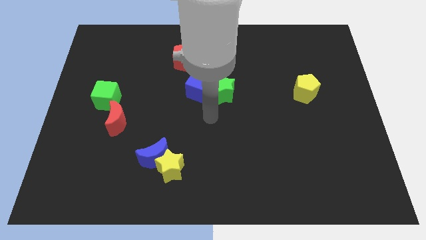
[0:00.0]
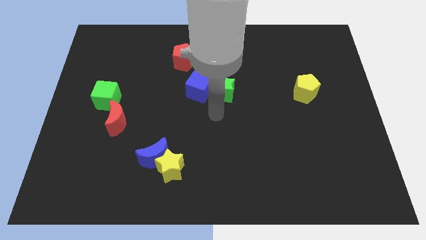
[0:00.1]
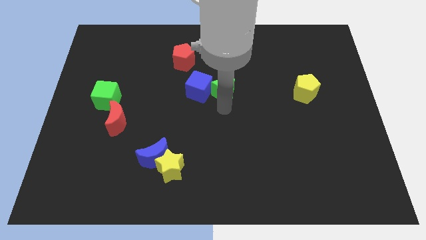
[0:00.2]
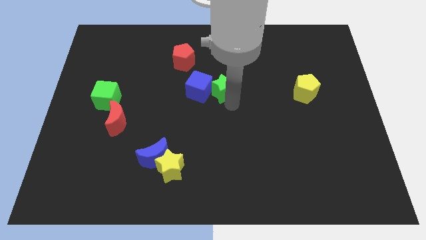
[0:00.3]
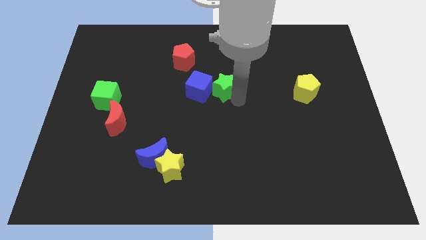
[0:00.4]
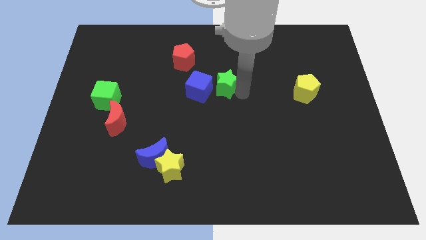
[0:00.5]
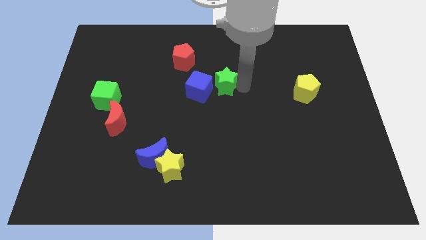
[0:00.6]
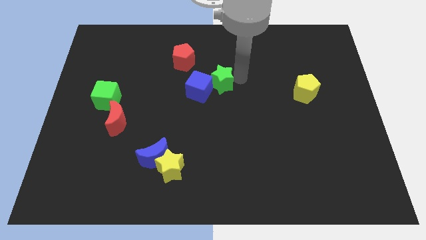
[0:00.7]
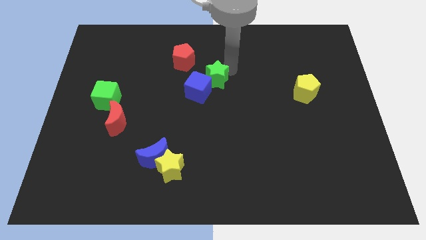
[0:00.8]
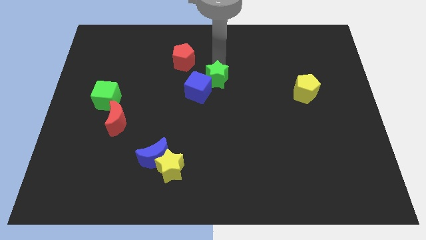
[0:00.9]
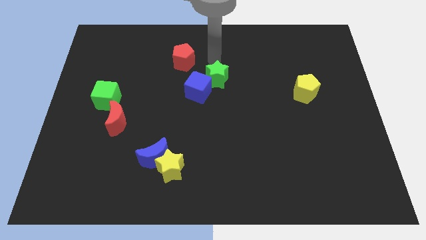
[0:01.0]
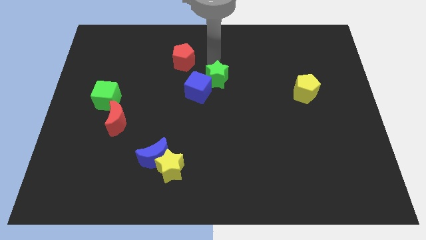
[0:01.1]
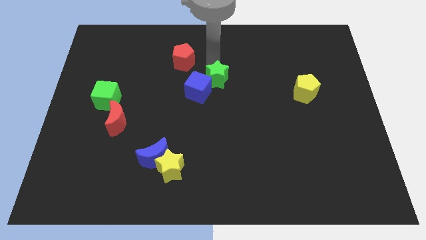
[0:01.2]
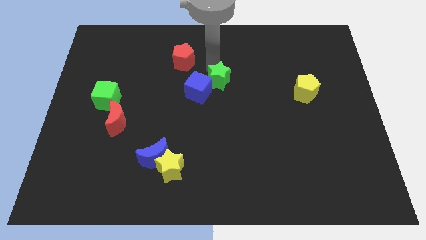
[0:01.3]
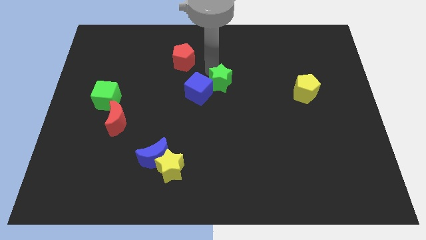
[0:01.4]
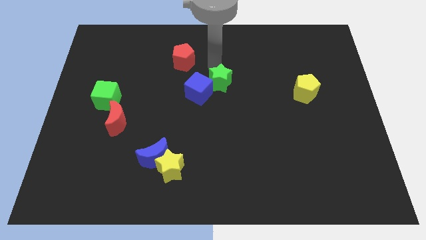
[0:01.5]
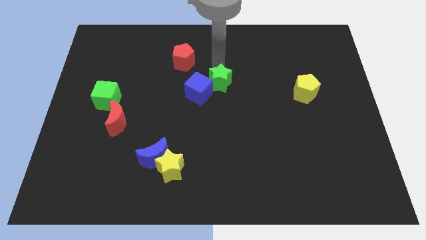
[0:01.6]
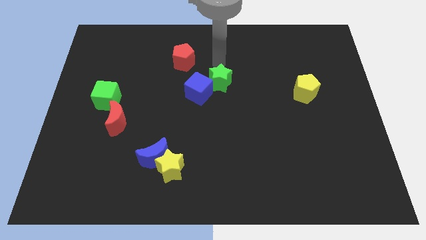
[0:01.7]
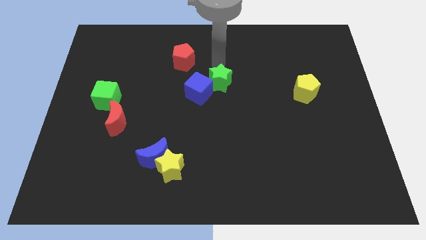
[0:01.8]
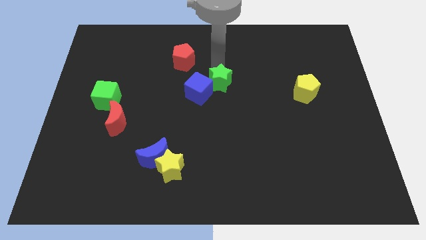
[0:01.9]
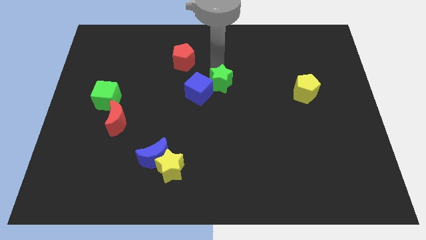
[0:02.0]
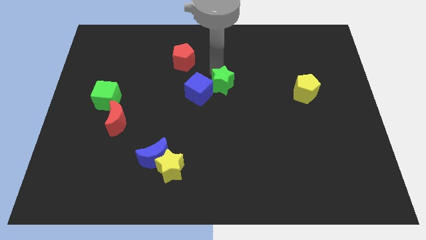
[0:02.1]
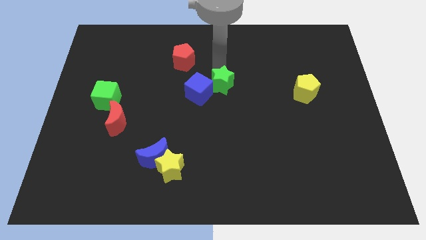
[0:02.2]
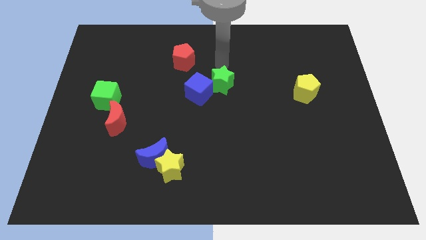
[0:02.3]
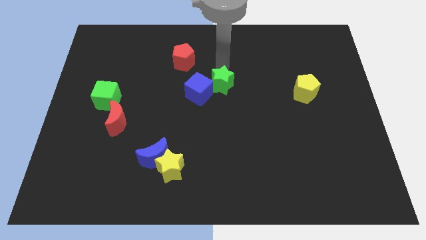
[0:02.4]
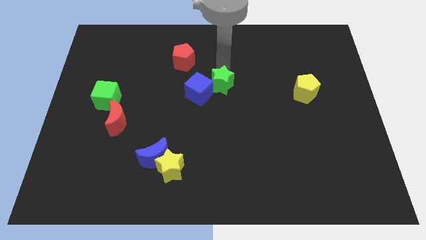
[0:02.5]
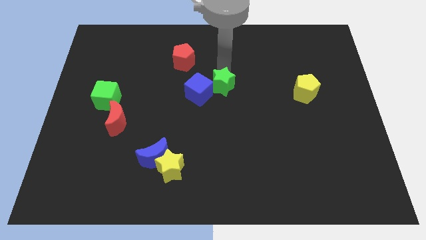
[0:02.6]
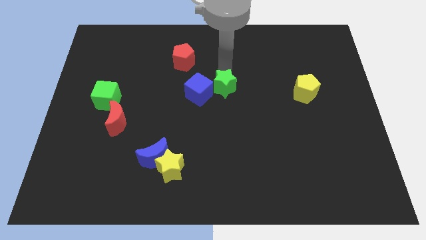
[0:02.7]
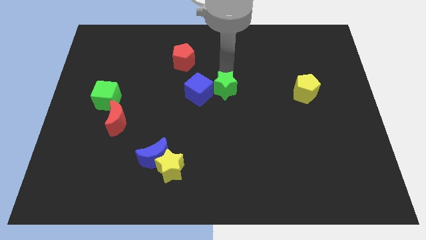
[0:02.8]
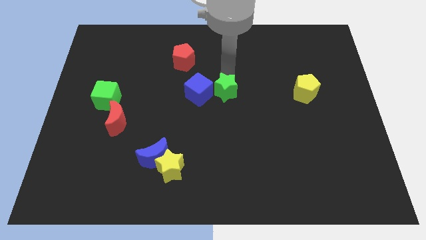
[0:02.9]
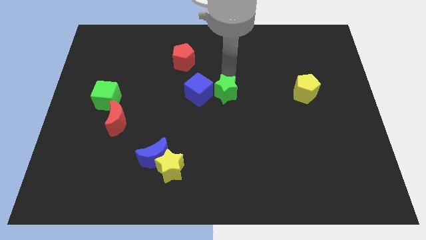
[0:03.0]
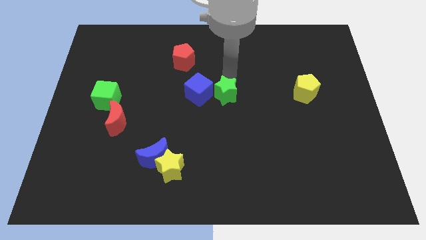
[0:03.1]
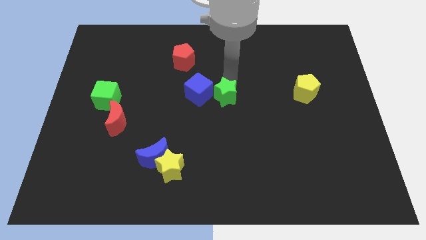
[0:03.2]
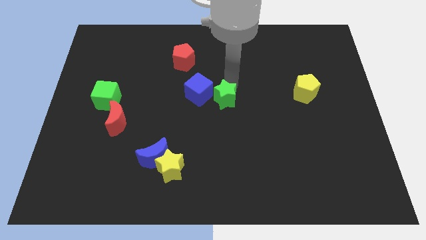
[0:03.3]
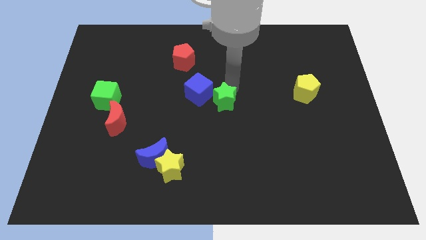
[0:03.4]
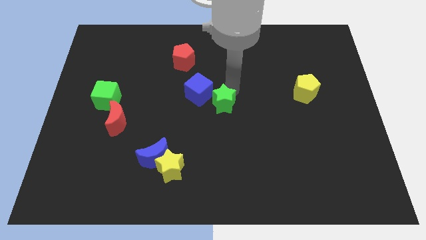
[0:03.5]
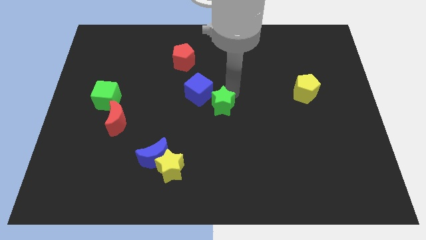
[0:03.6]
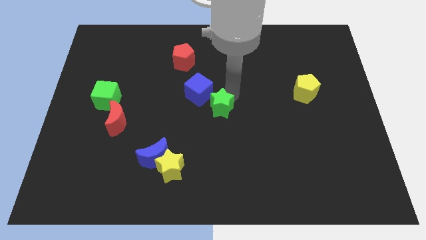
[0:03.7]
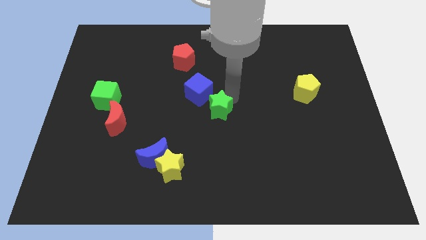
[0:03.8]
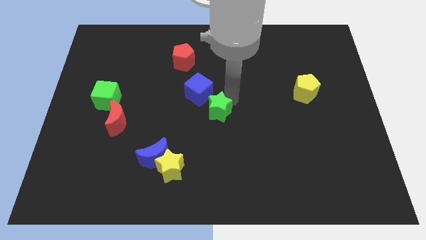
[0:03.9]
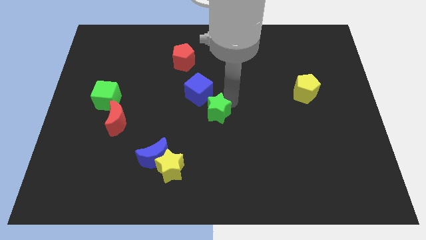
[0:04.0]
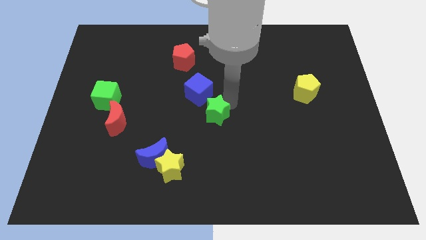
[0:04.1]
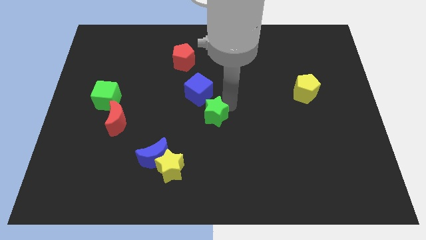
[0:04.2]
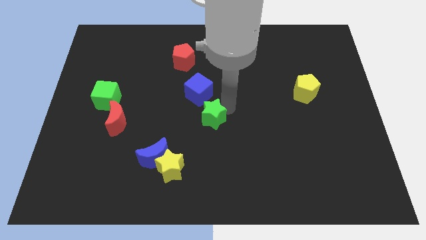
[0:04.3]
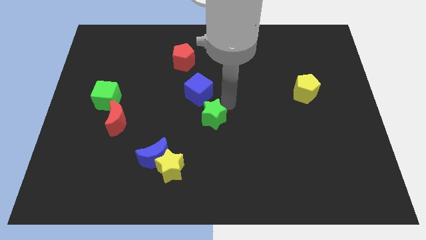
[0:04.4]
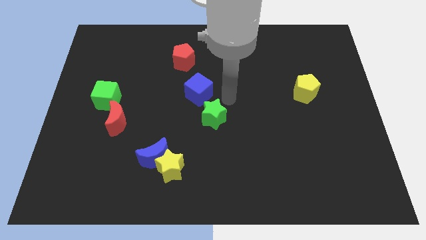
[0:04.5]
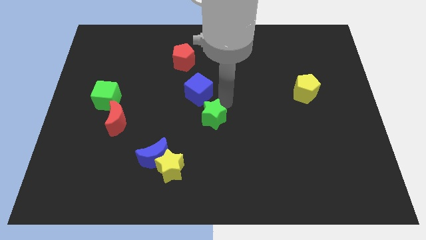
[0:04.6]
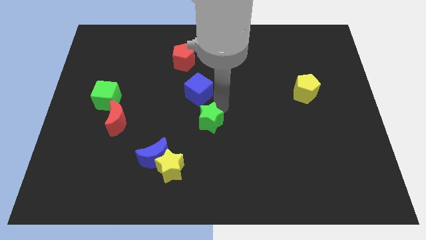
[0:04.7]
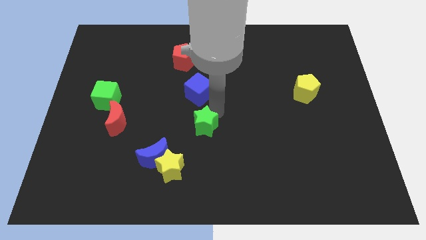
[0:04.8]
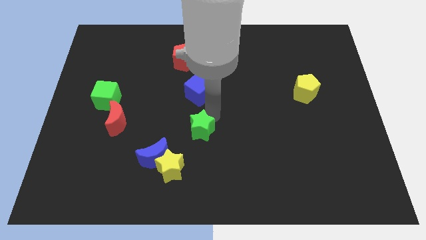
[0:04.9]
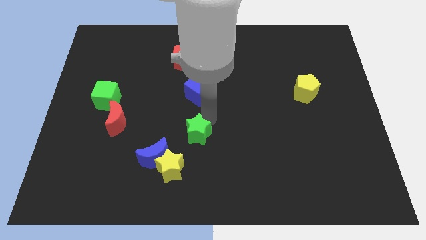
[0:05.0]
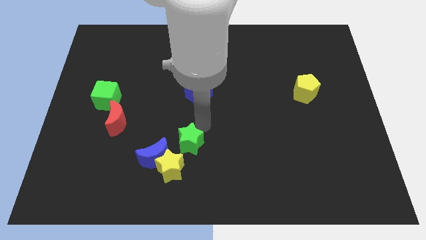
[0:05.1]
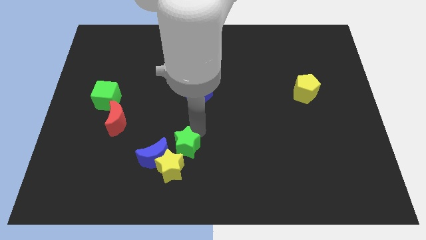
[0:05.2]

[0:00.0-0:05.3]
move the green star towards the yellow star

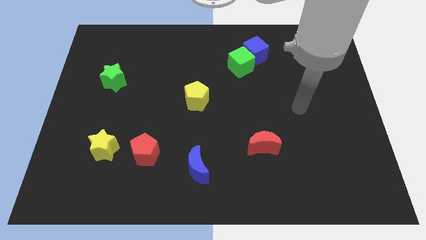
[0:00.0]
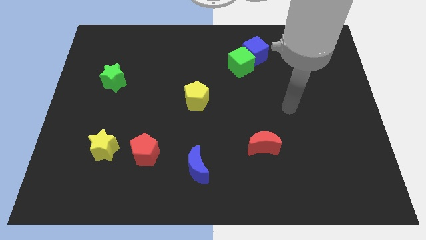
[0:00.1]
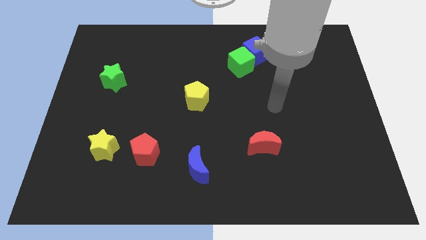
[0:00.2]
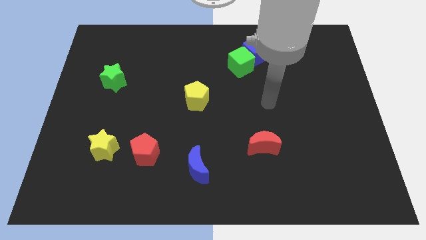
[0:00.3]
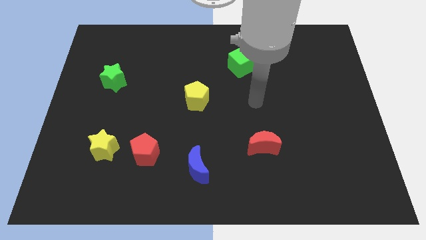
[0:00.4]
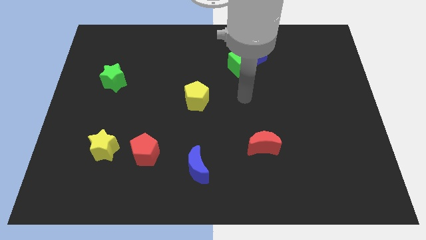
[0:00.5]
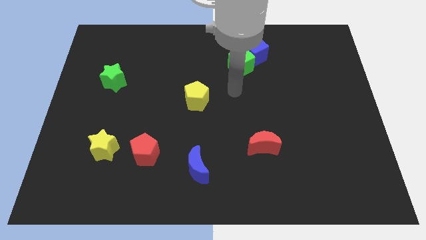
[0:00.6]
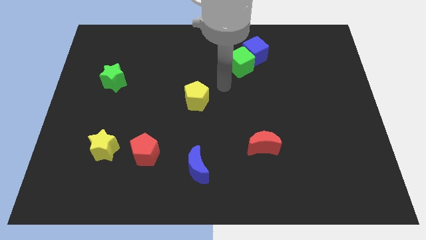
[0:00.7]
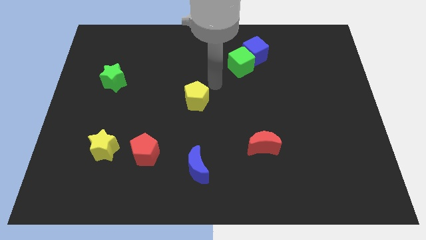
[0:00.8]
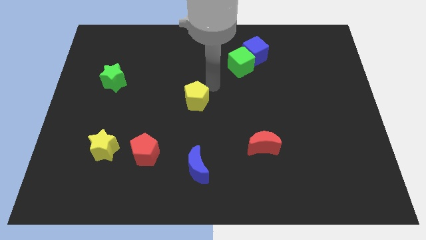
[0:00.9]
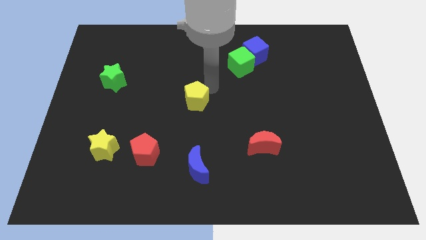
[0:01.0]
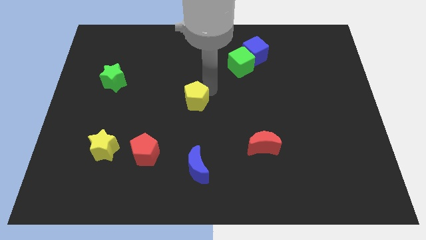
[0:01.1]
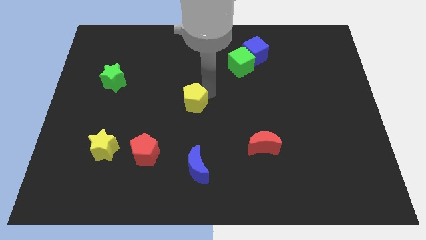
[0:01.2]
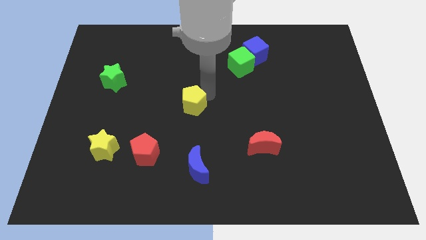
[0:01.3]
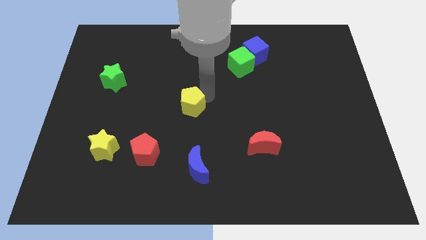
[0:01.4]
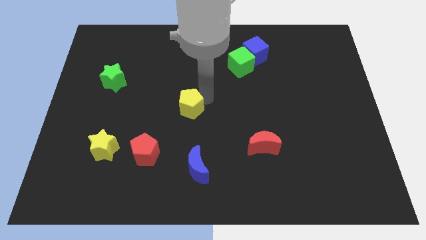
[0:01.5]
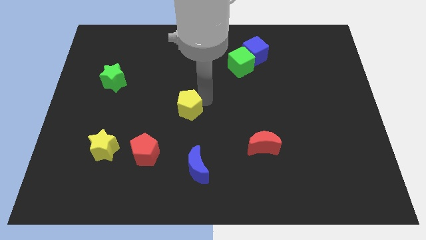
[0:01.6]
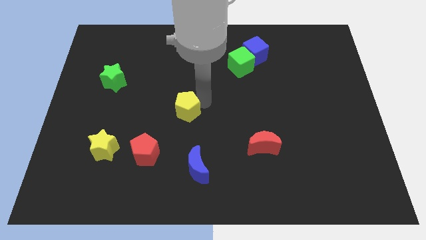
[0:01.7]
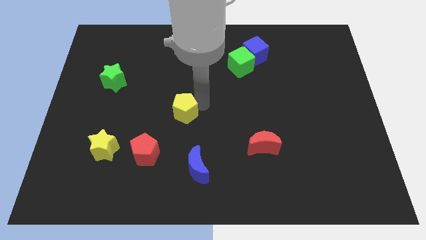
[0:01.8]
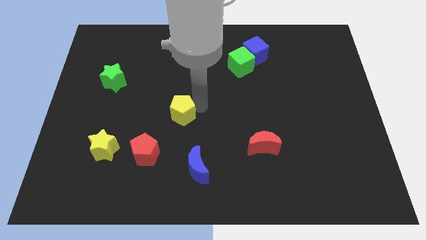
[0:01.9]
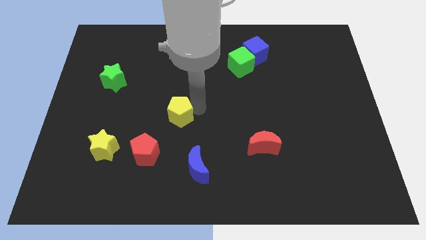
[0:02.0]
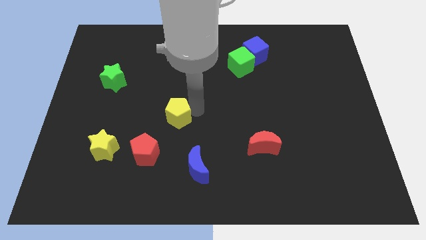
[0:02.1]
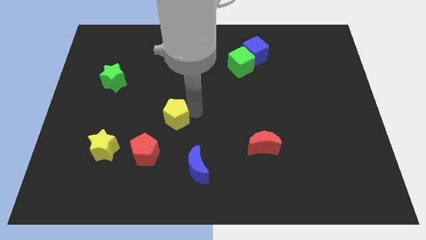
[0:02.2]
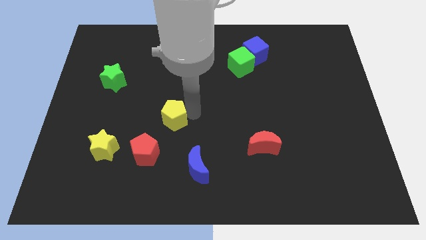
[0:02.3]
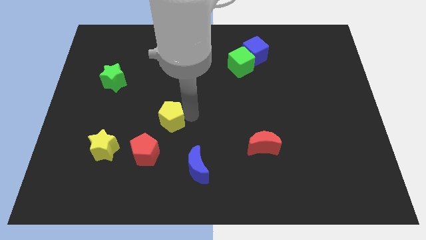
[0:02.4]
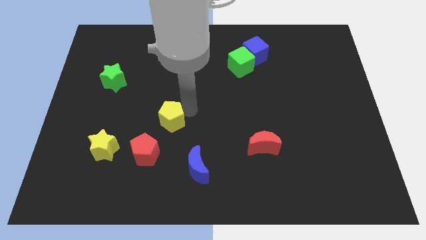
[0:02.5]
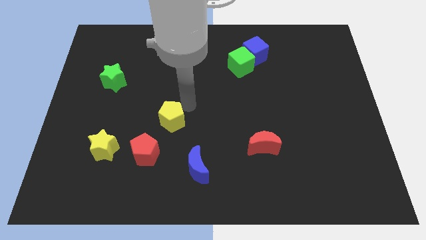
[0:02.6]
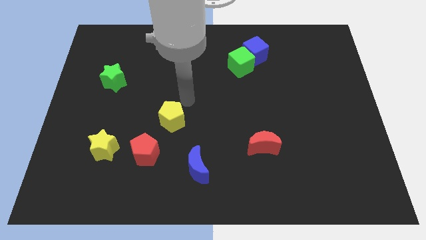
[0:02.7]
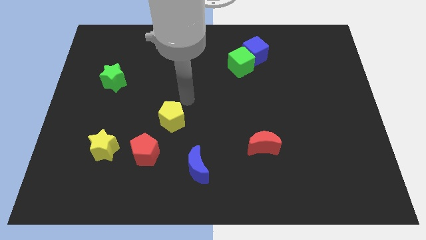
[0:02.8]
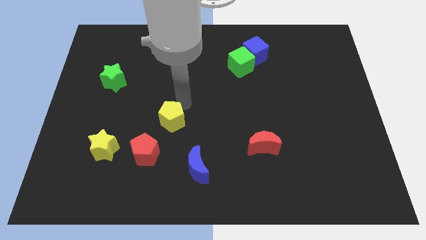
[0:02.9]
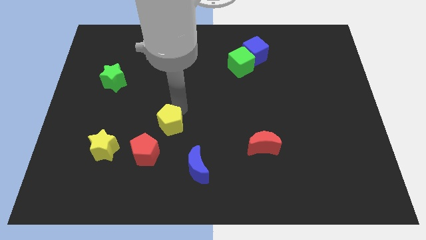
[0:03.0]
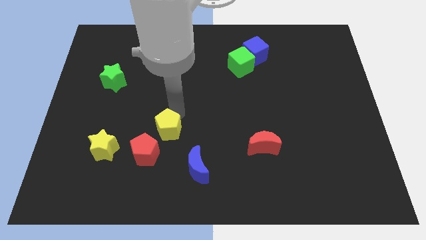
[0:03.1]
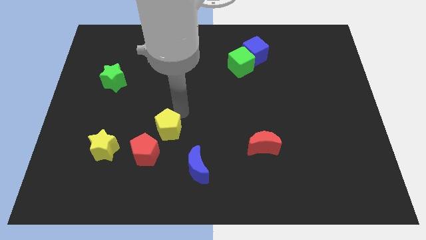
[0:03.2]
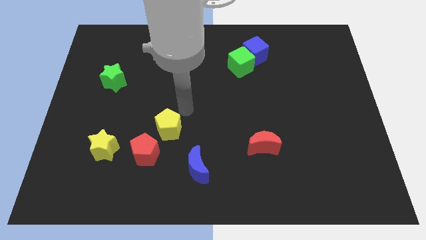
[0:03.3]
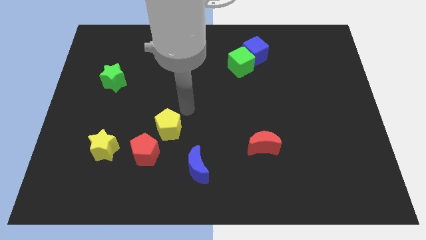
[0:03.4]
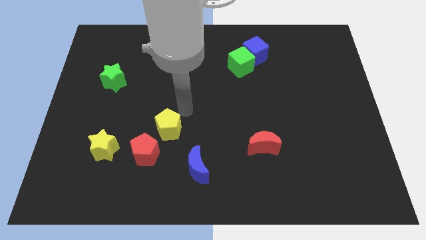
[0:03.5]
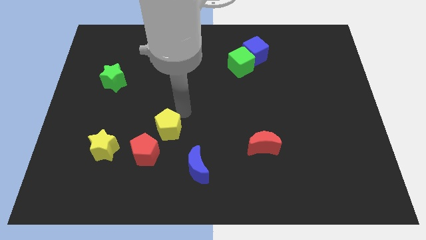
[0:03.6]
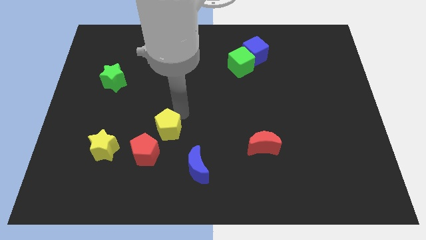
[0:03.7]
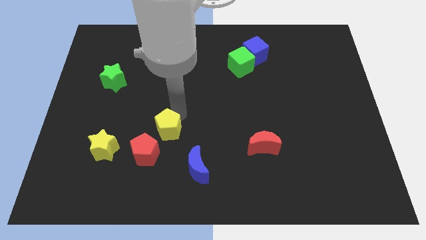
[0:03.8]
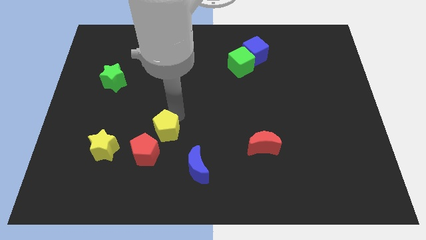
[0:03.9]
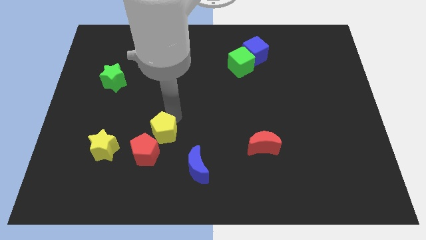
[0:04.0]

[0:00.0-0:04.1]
move the yellow pentagon close to the red pentagon
